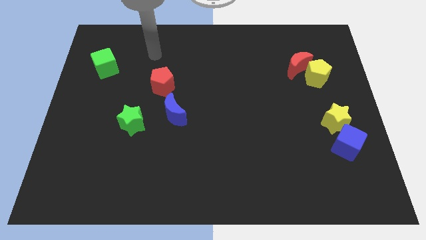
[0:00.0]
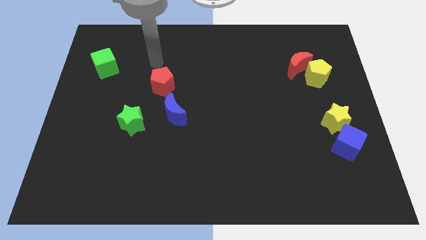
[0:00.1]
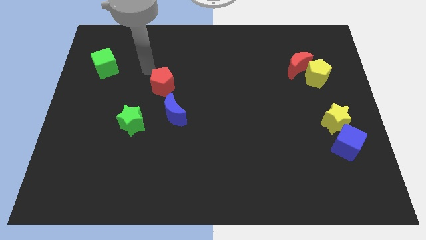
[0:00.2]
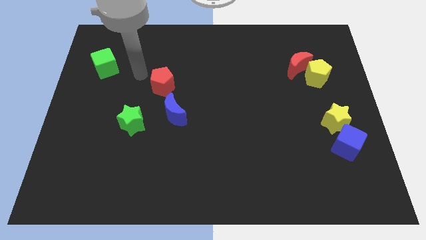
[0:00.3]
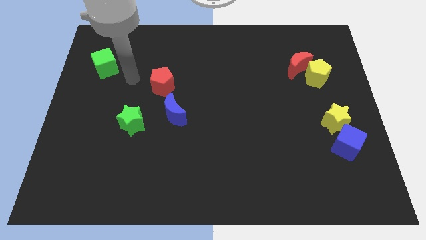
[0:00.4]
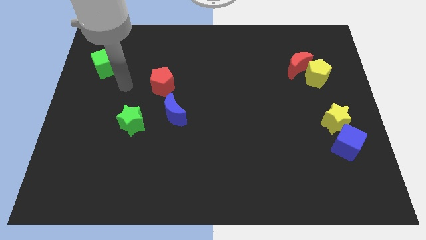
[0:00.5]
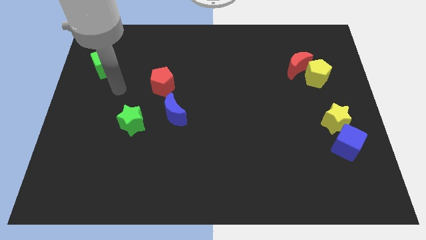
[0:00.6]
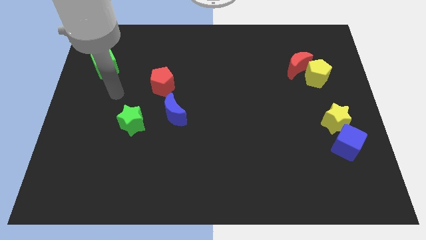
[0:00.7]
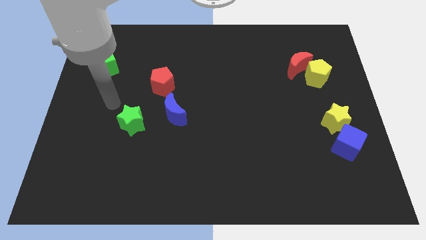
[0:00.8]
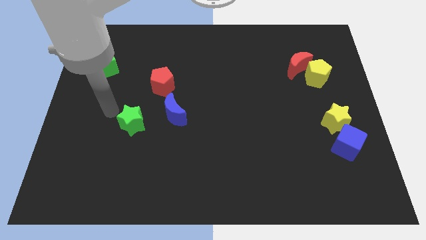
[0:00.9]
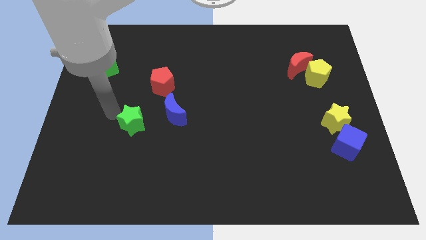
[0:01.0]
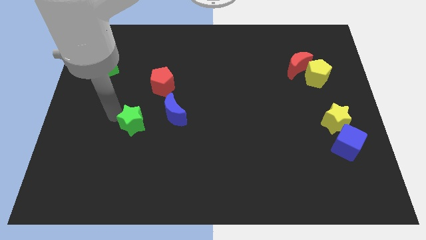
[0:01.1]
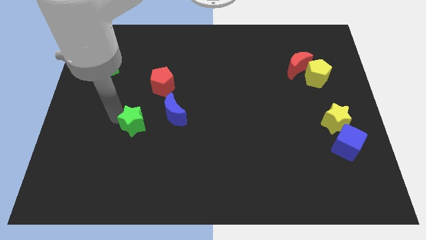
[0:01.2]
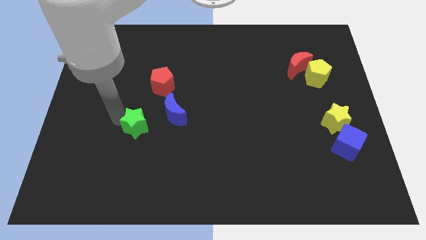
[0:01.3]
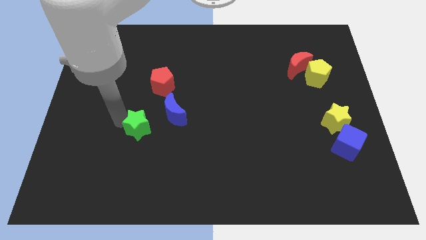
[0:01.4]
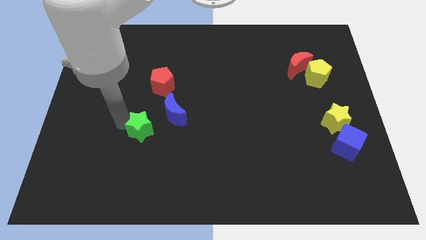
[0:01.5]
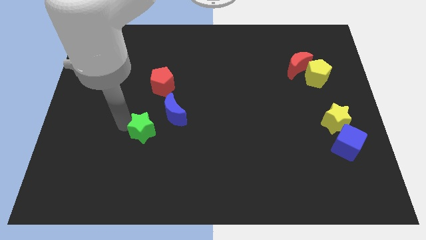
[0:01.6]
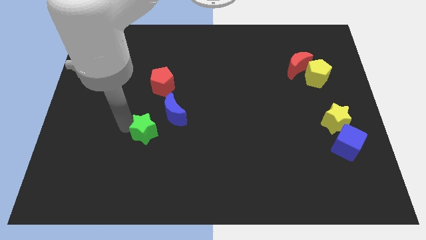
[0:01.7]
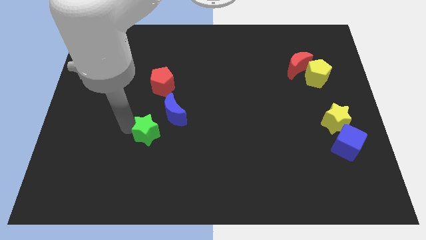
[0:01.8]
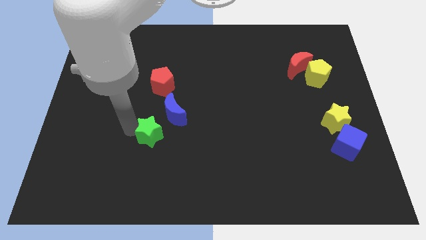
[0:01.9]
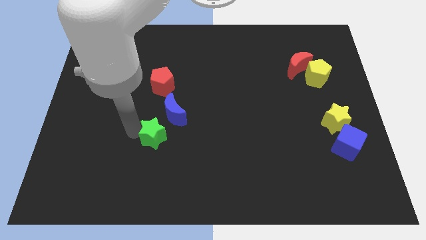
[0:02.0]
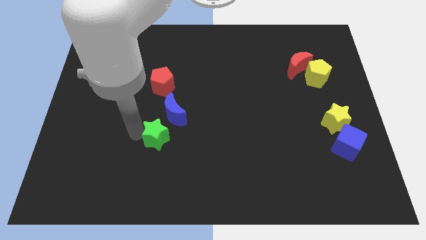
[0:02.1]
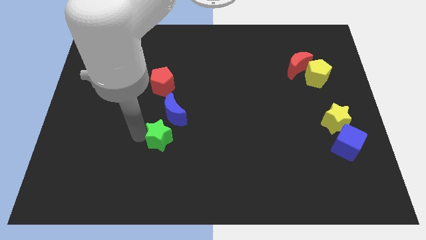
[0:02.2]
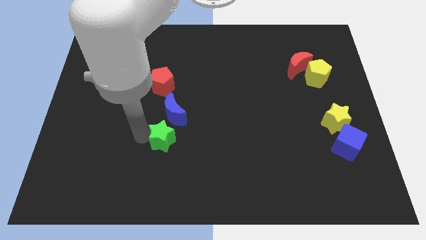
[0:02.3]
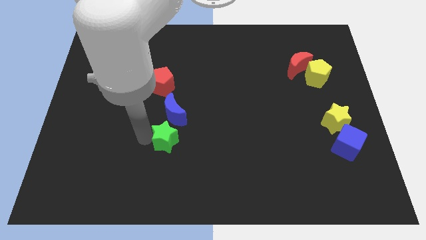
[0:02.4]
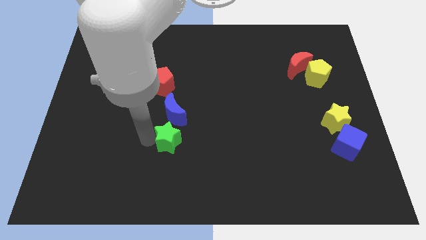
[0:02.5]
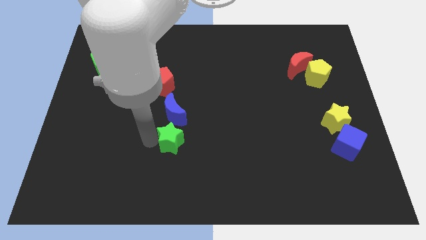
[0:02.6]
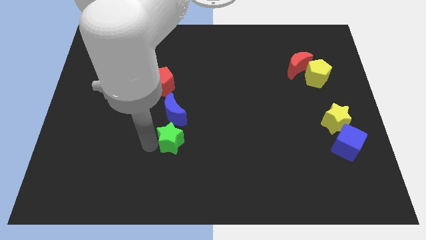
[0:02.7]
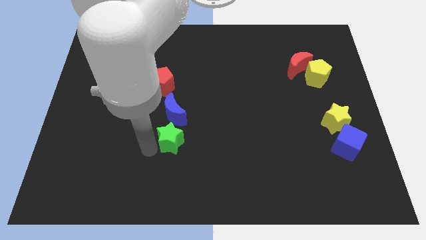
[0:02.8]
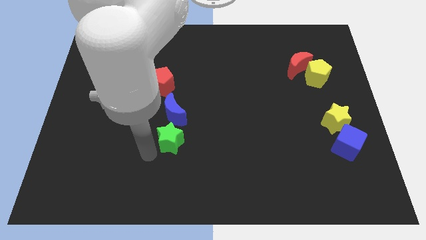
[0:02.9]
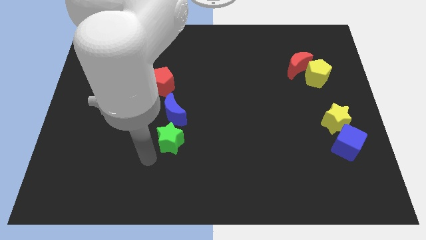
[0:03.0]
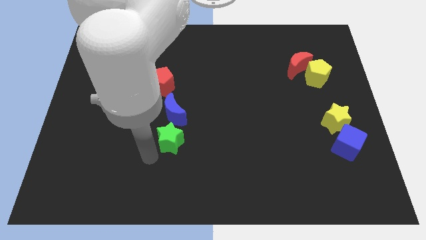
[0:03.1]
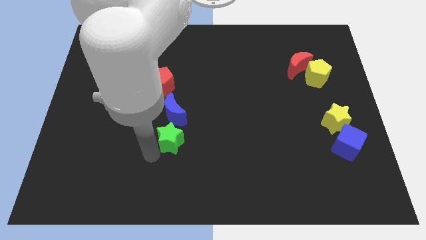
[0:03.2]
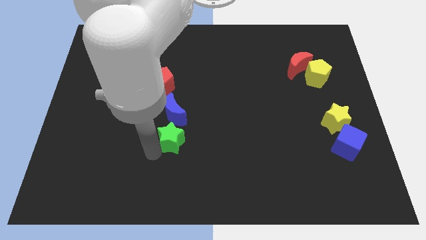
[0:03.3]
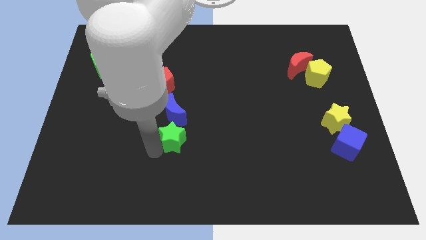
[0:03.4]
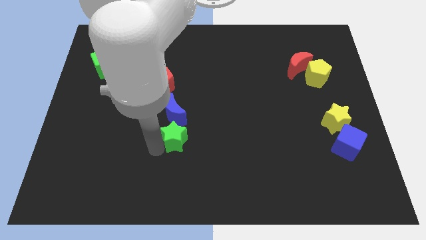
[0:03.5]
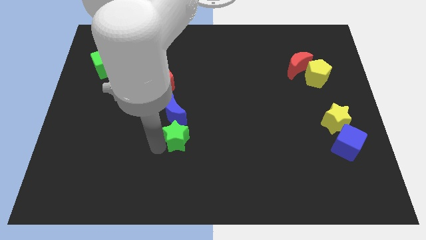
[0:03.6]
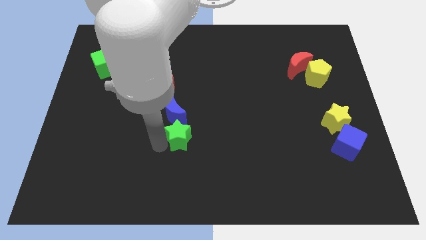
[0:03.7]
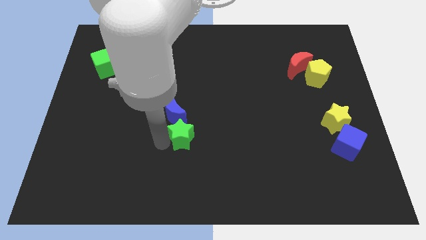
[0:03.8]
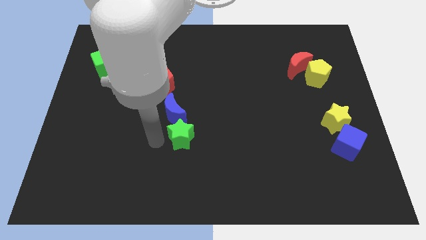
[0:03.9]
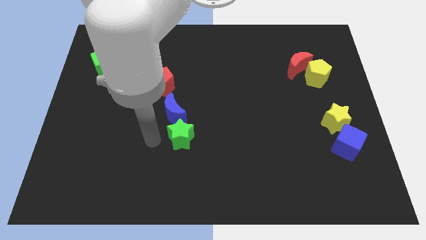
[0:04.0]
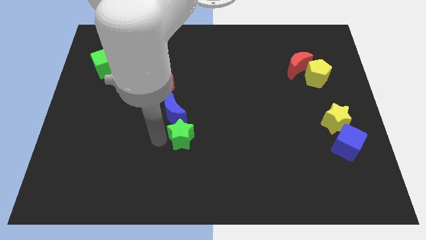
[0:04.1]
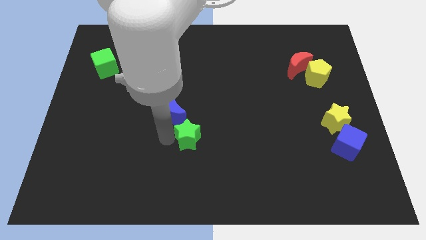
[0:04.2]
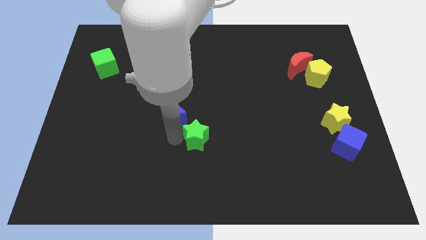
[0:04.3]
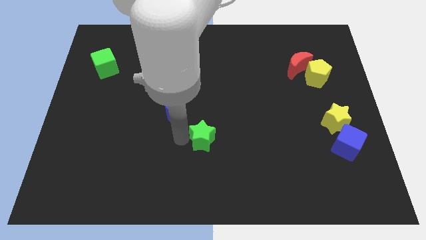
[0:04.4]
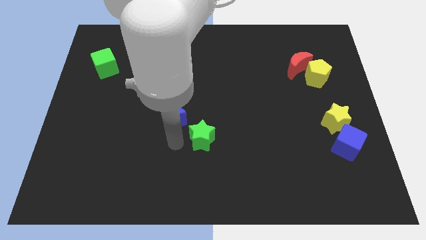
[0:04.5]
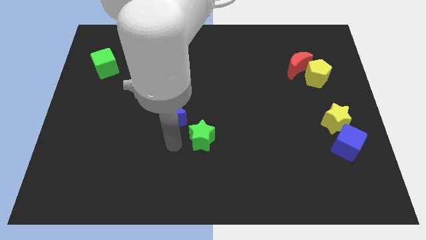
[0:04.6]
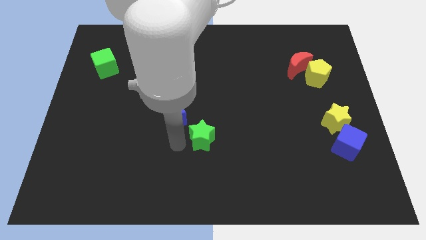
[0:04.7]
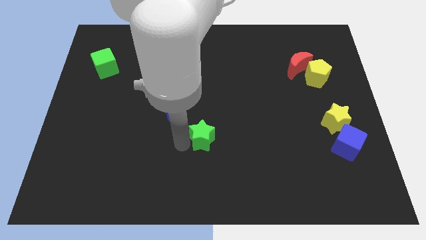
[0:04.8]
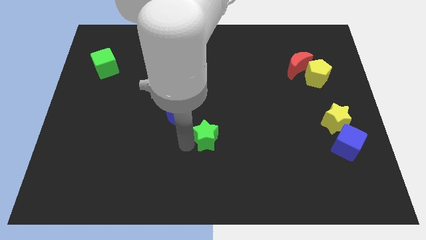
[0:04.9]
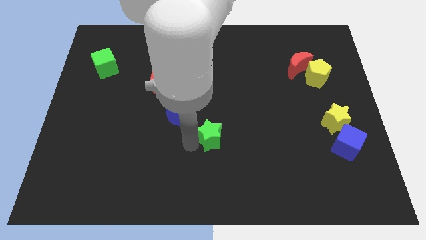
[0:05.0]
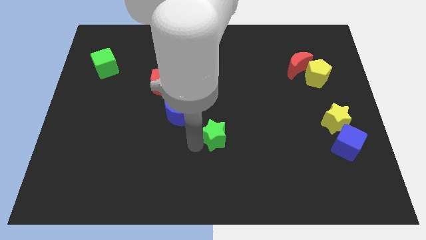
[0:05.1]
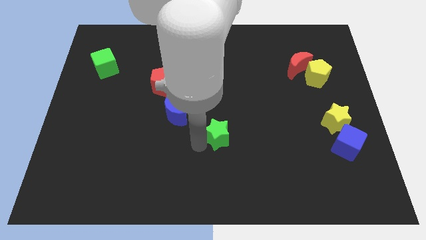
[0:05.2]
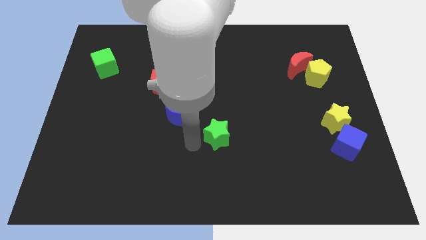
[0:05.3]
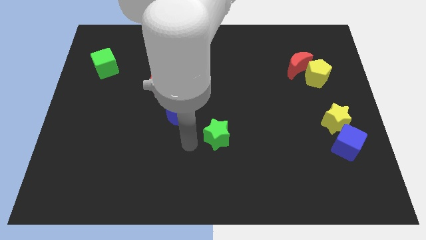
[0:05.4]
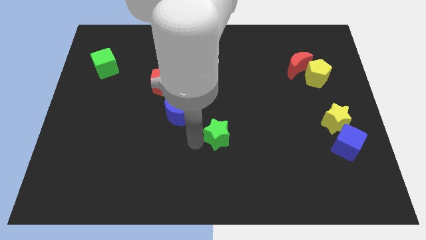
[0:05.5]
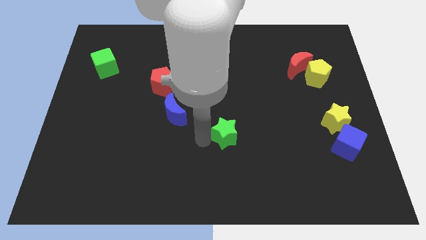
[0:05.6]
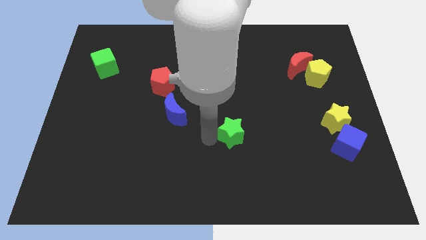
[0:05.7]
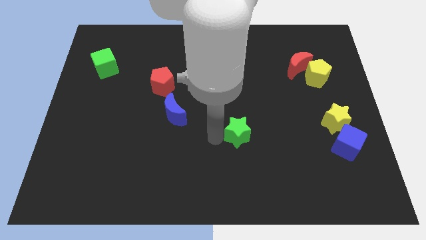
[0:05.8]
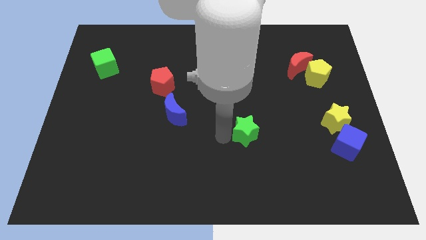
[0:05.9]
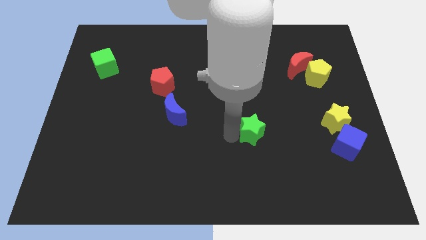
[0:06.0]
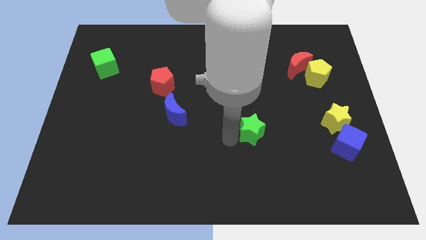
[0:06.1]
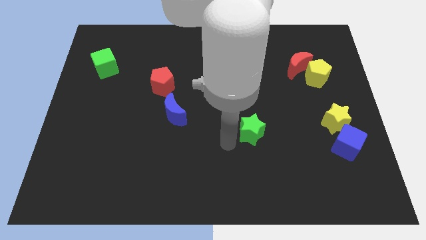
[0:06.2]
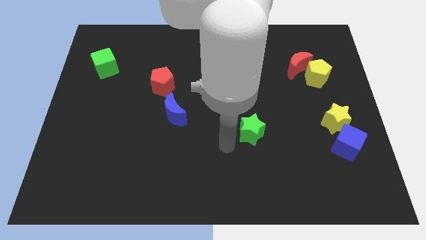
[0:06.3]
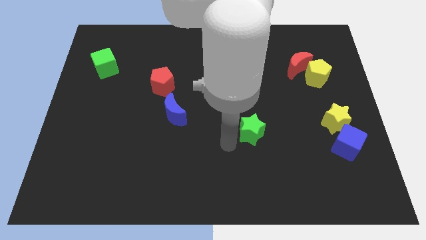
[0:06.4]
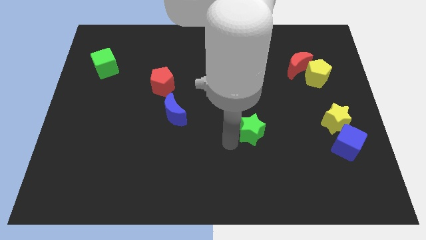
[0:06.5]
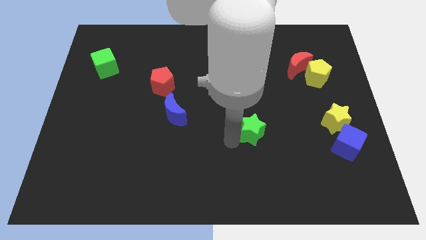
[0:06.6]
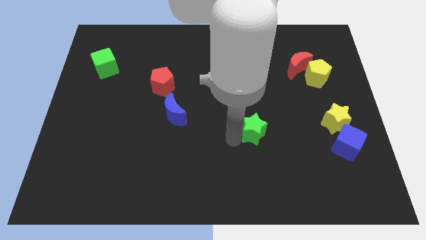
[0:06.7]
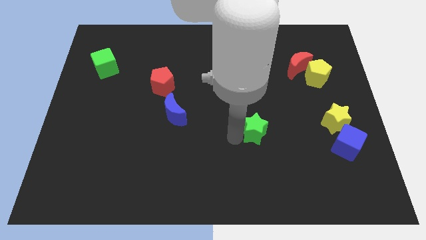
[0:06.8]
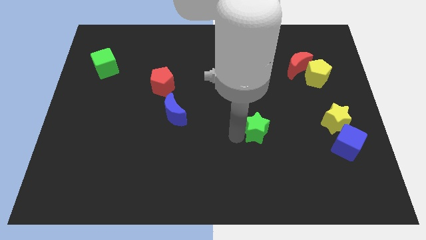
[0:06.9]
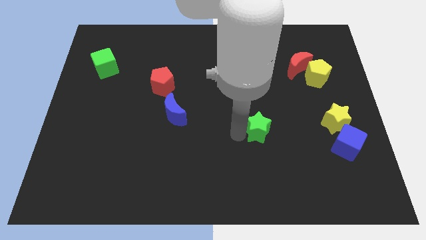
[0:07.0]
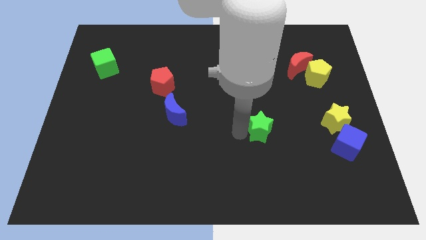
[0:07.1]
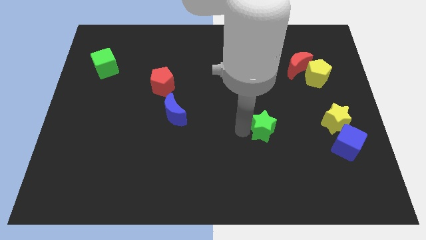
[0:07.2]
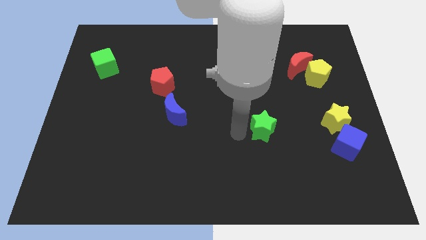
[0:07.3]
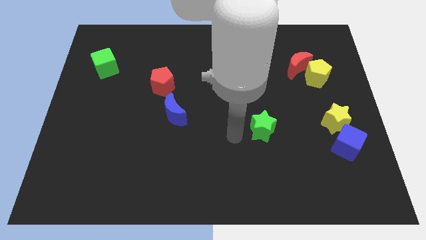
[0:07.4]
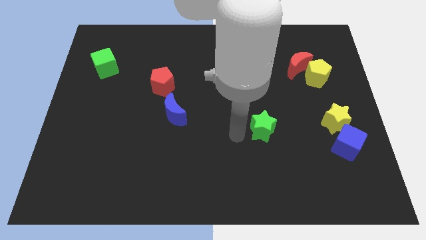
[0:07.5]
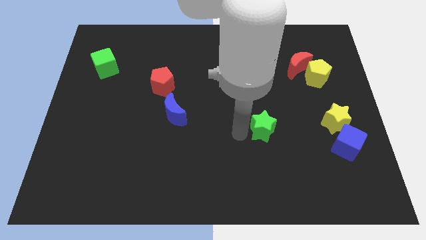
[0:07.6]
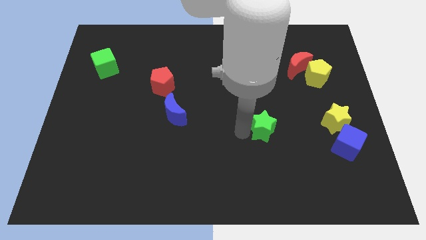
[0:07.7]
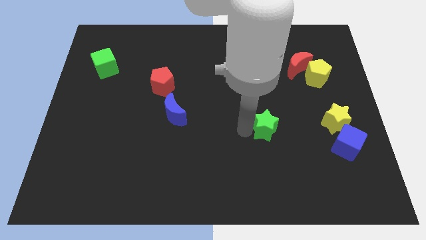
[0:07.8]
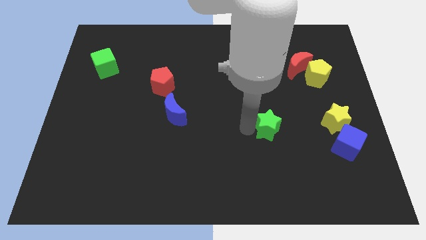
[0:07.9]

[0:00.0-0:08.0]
put the green star to the left of the yellow star
